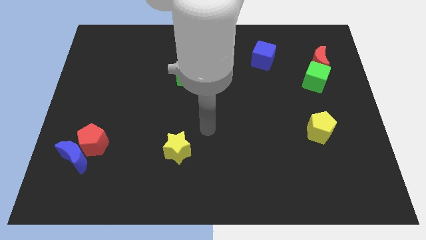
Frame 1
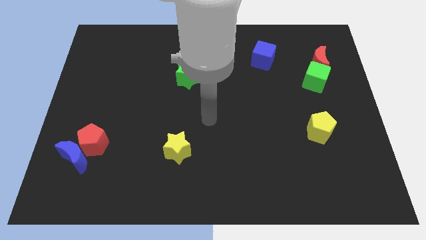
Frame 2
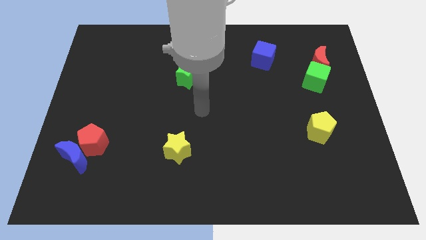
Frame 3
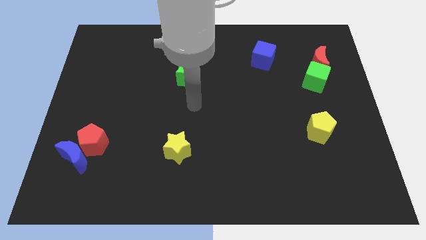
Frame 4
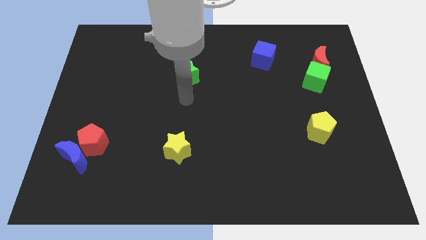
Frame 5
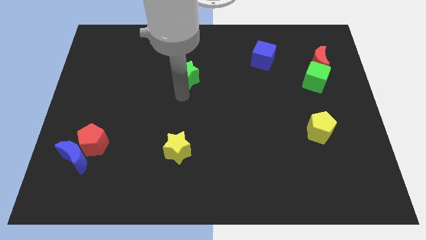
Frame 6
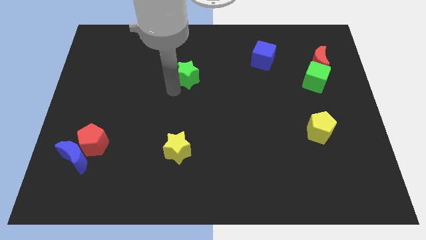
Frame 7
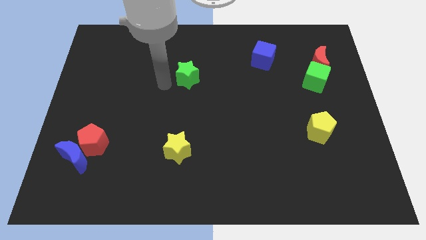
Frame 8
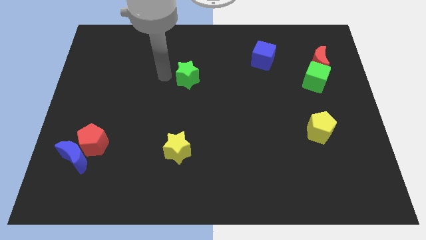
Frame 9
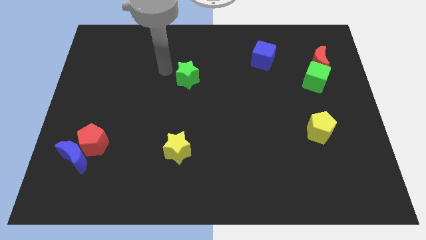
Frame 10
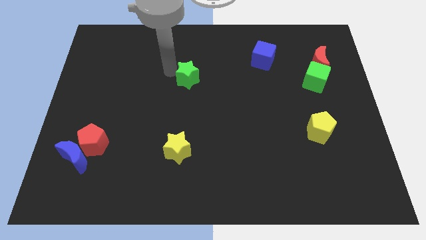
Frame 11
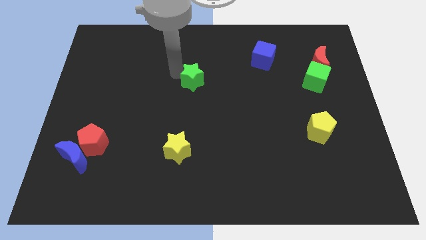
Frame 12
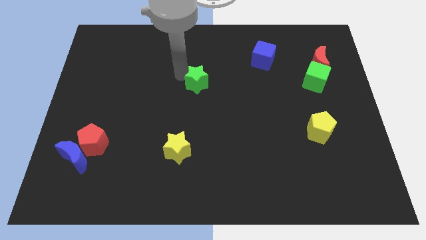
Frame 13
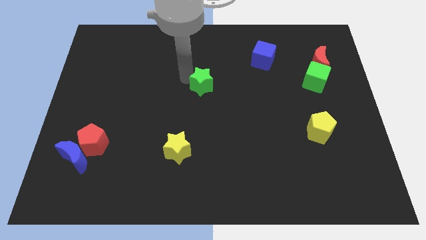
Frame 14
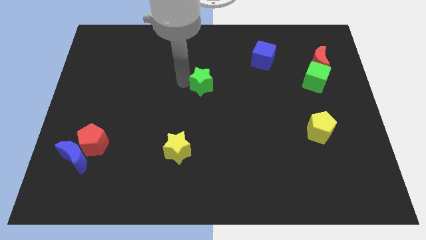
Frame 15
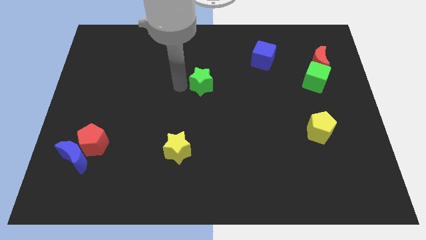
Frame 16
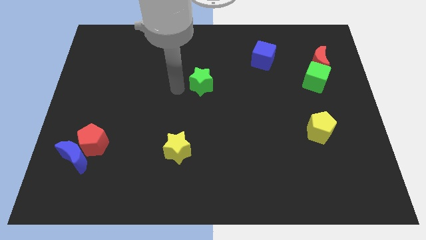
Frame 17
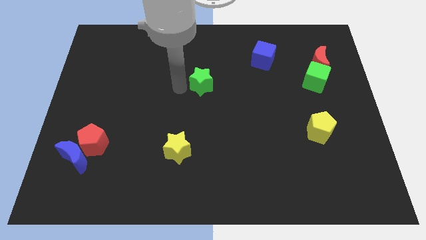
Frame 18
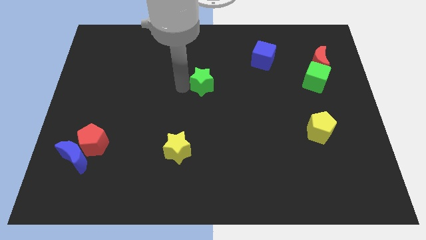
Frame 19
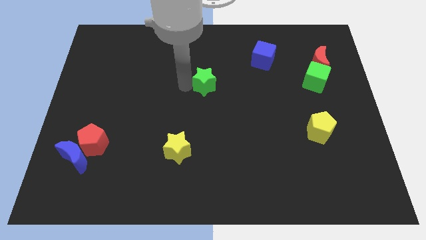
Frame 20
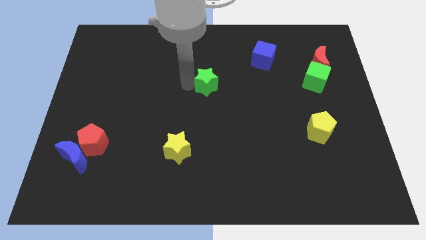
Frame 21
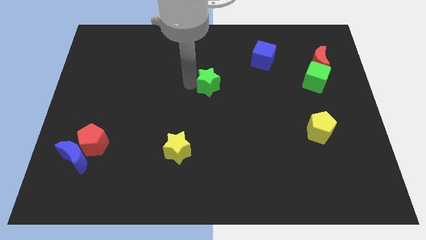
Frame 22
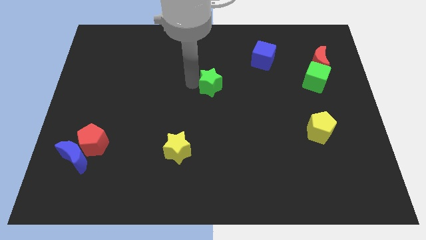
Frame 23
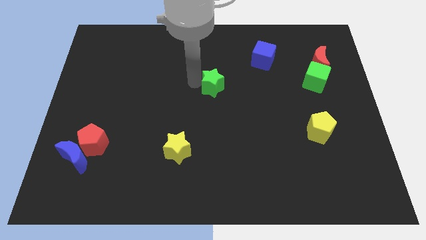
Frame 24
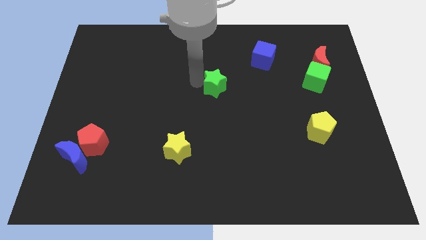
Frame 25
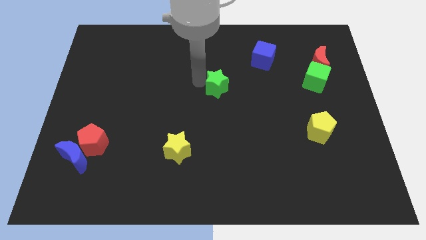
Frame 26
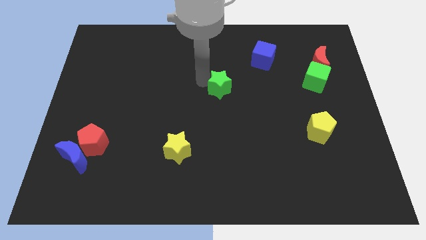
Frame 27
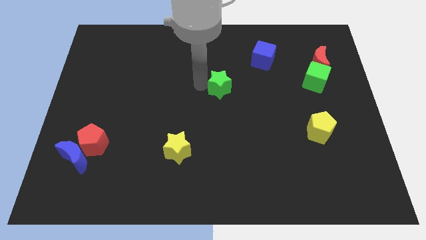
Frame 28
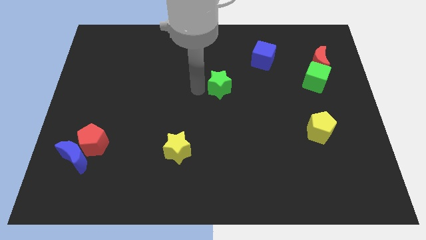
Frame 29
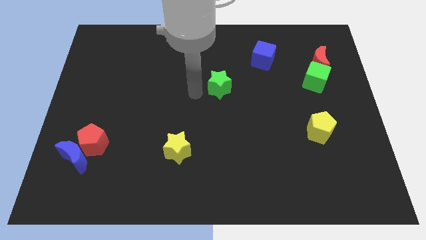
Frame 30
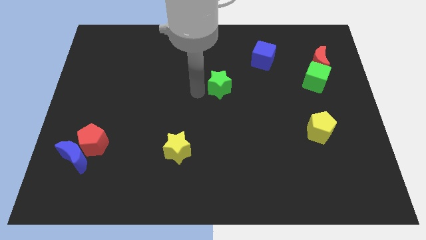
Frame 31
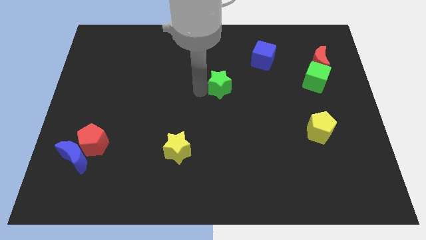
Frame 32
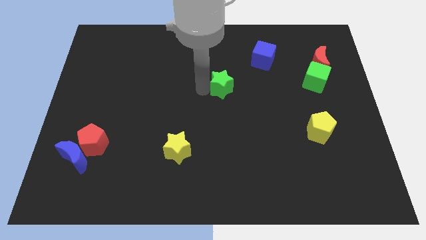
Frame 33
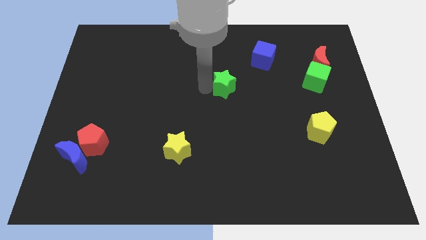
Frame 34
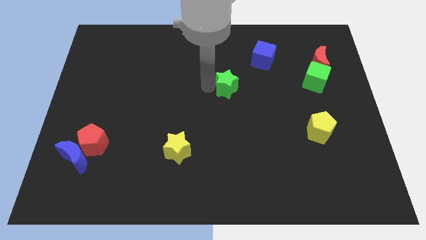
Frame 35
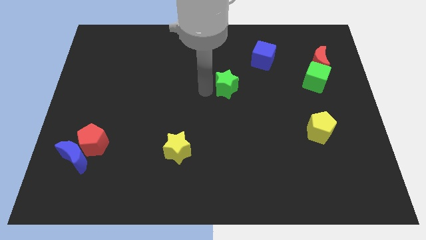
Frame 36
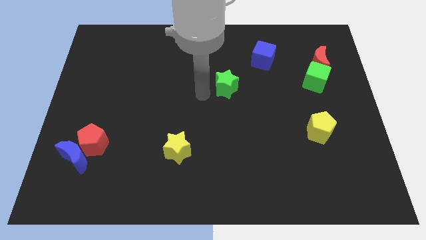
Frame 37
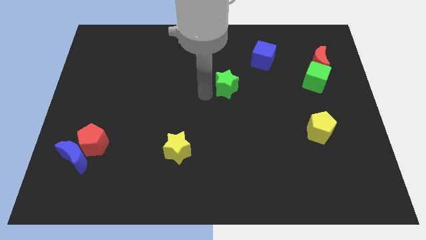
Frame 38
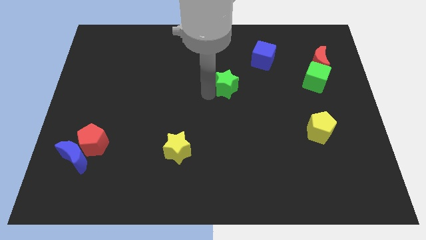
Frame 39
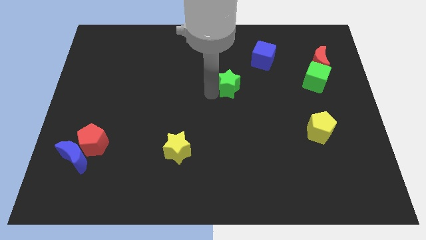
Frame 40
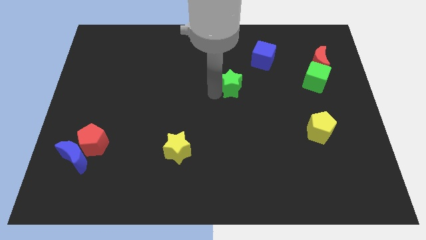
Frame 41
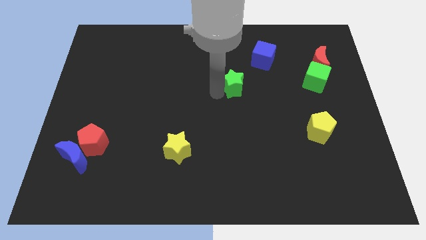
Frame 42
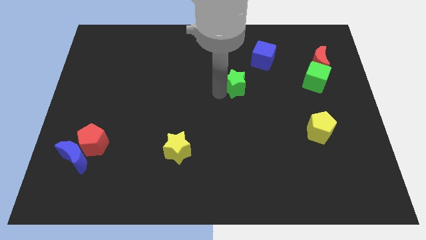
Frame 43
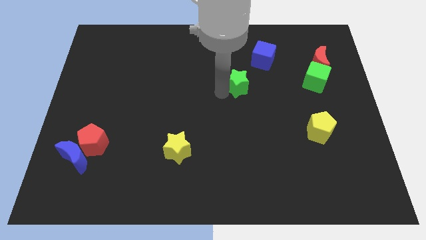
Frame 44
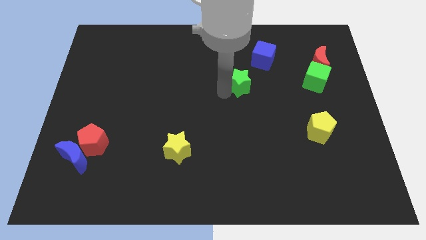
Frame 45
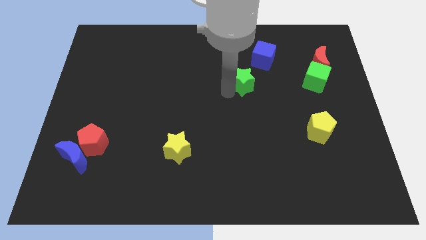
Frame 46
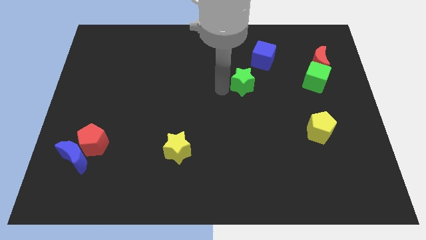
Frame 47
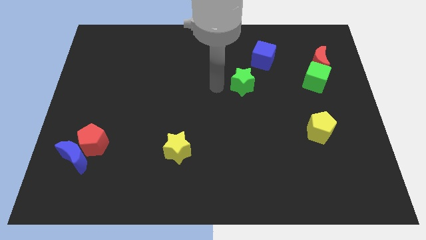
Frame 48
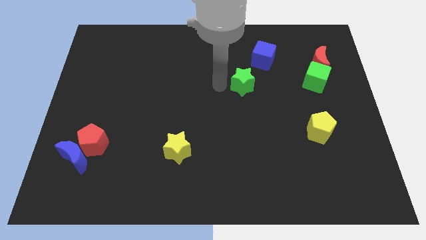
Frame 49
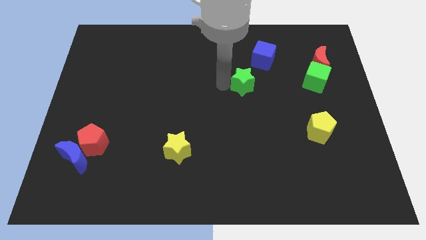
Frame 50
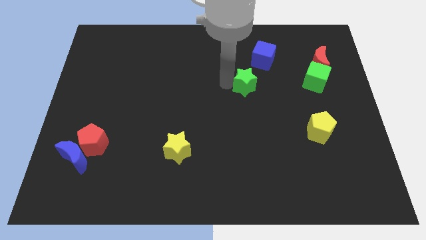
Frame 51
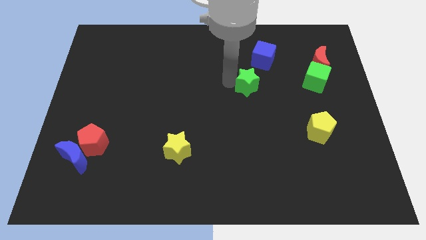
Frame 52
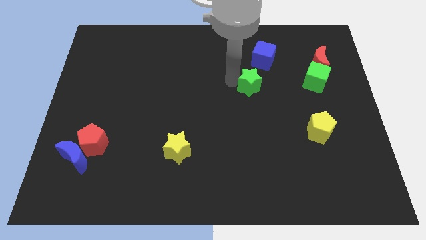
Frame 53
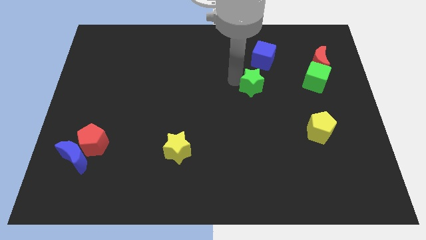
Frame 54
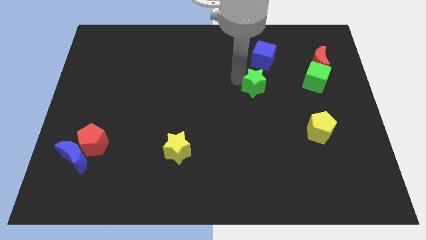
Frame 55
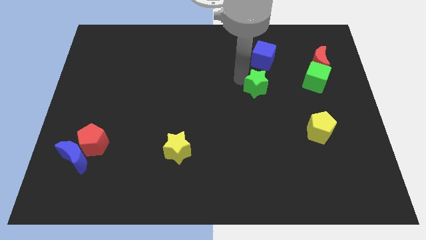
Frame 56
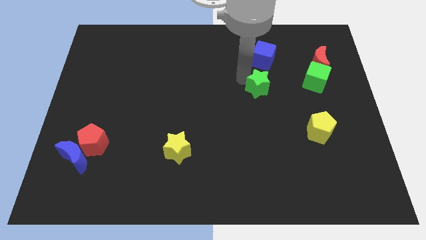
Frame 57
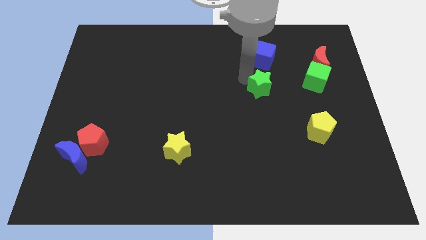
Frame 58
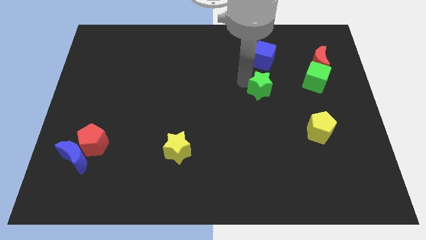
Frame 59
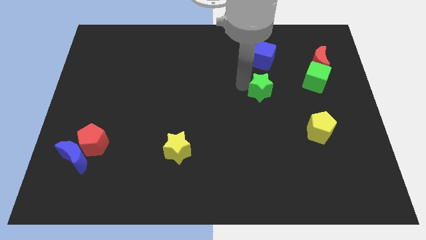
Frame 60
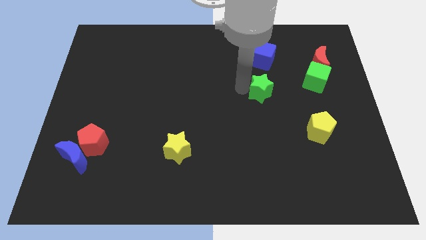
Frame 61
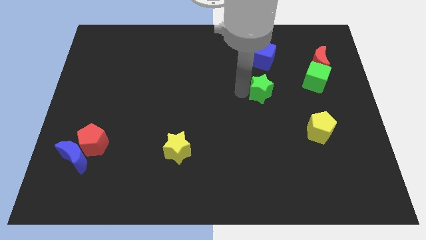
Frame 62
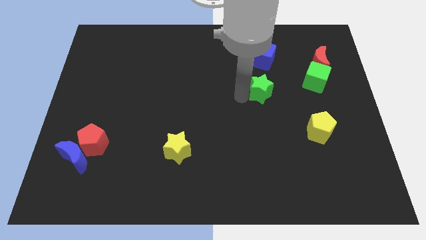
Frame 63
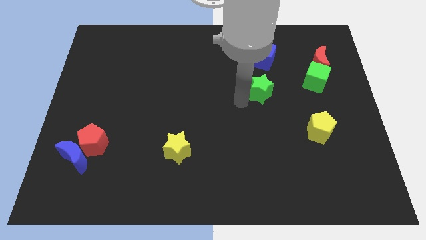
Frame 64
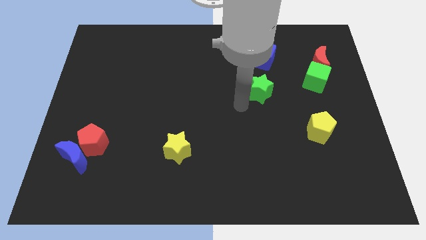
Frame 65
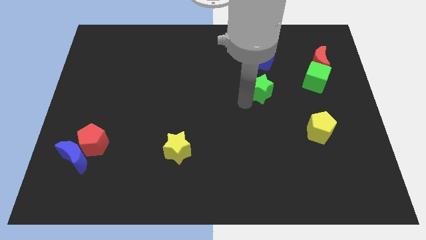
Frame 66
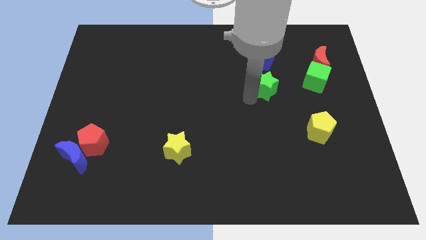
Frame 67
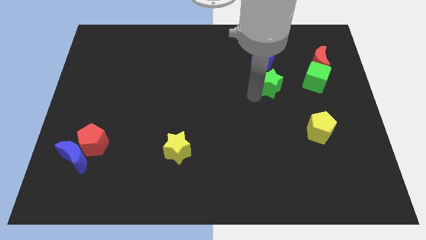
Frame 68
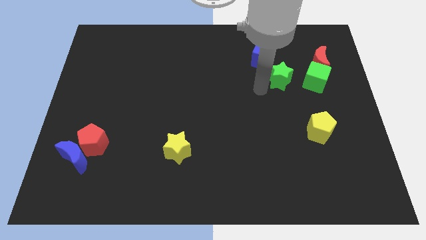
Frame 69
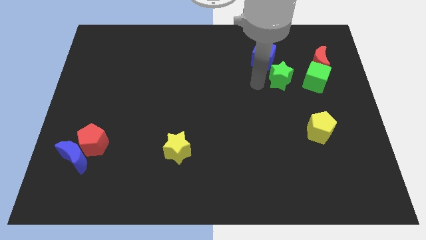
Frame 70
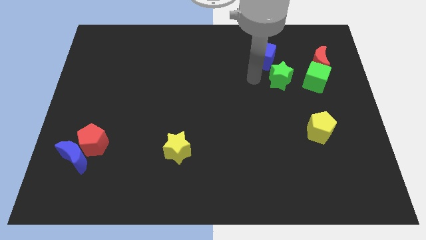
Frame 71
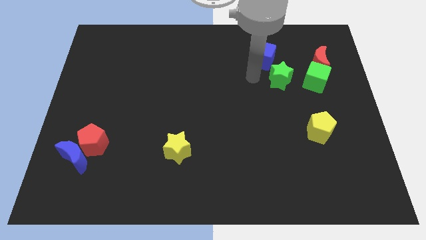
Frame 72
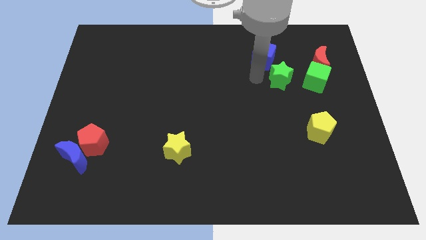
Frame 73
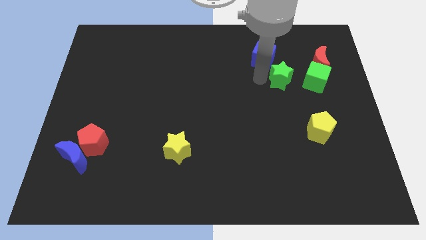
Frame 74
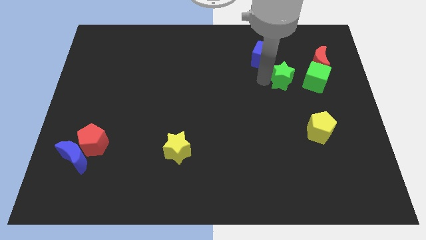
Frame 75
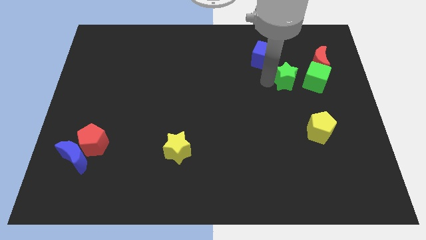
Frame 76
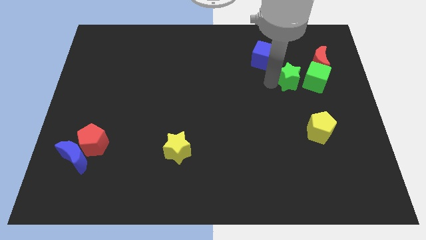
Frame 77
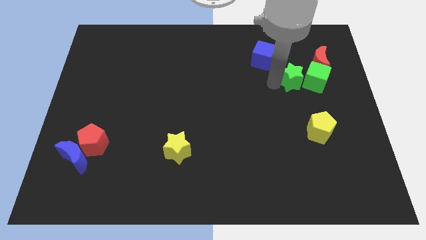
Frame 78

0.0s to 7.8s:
slide the green star next to the green cube
